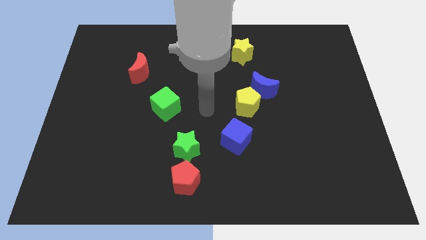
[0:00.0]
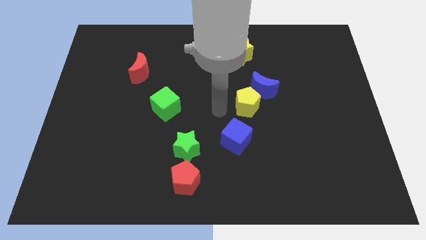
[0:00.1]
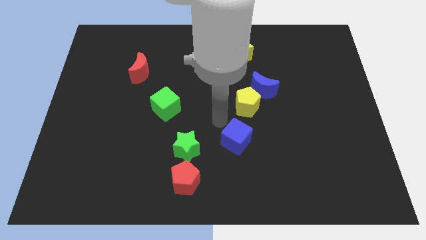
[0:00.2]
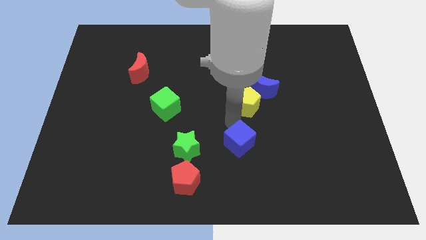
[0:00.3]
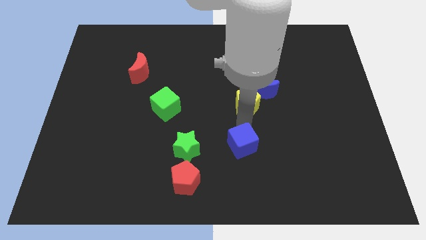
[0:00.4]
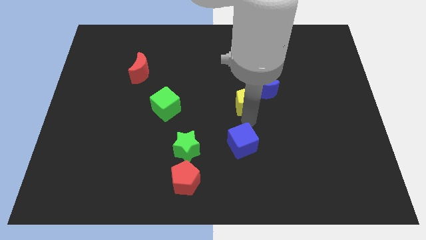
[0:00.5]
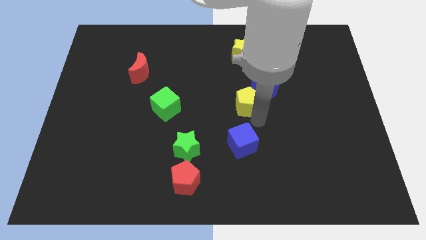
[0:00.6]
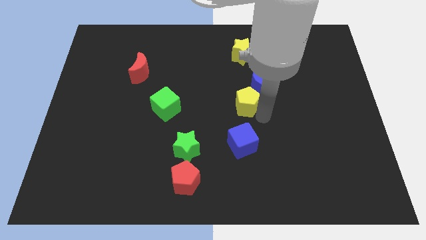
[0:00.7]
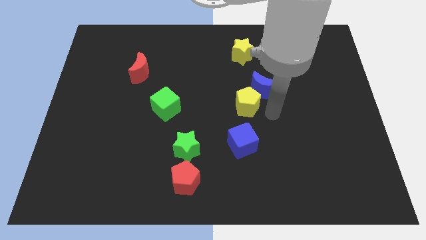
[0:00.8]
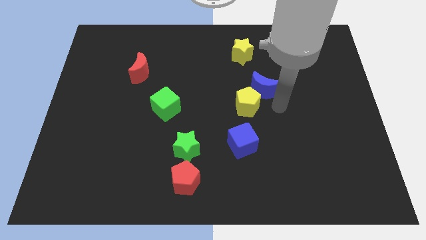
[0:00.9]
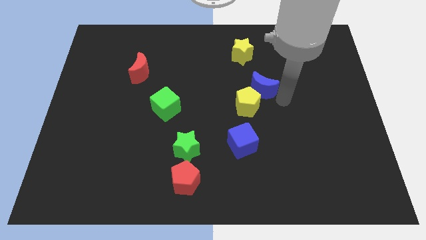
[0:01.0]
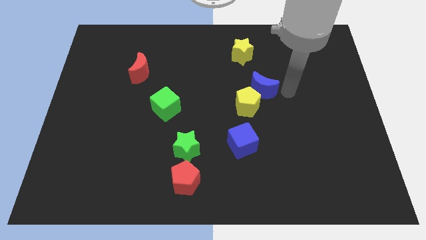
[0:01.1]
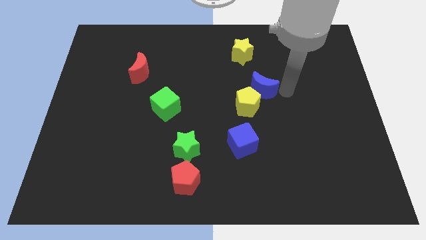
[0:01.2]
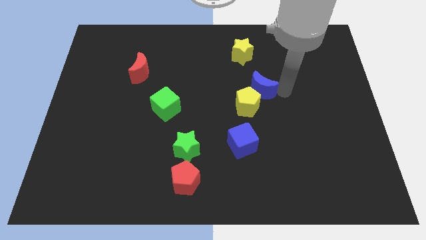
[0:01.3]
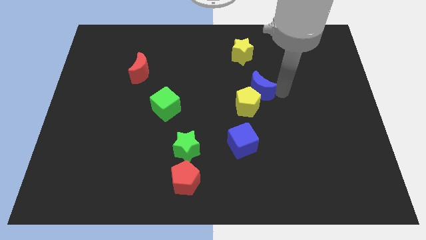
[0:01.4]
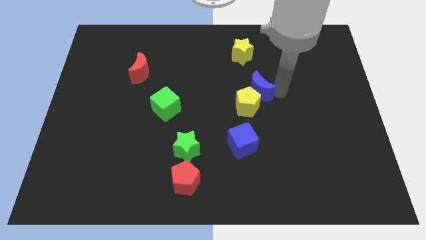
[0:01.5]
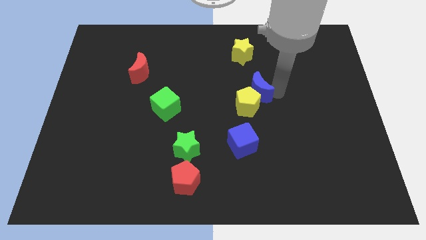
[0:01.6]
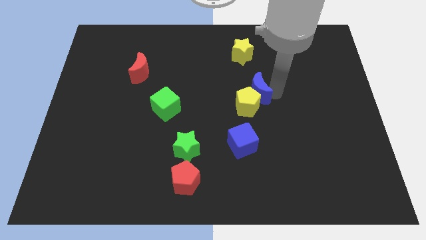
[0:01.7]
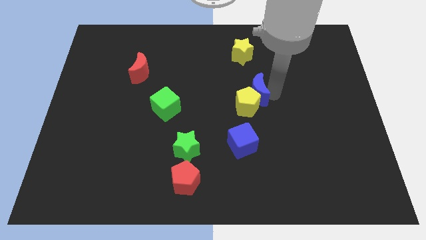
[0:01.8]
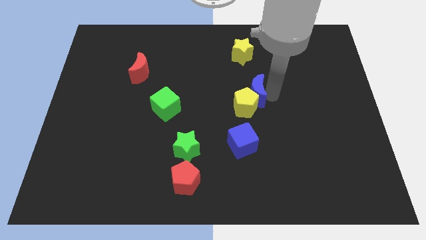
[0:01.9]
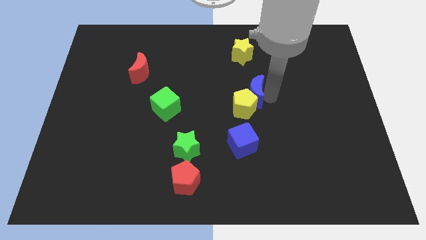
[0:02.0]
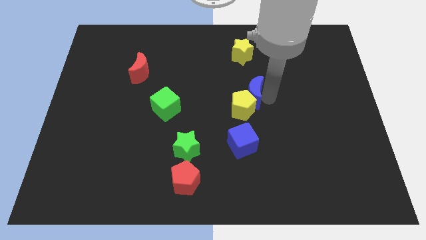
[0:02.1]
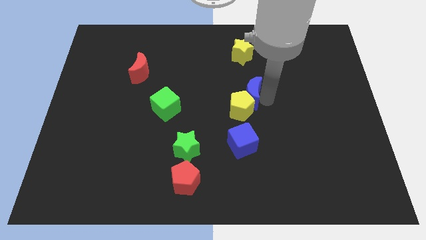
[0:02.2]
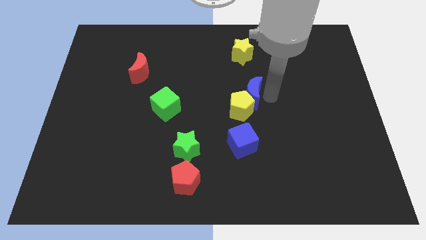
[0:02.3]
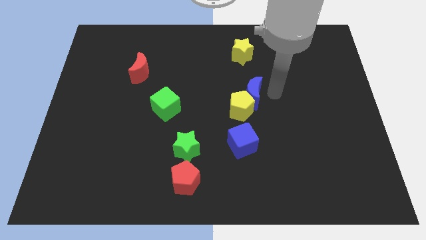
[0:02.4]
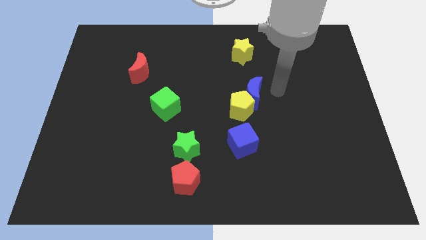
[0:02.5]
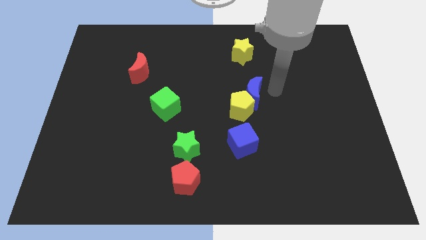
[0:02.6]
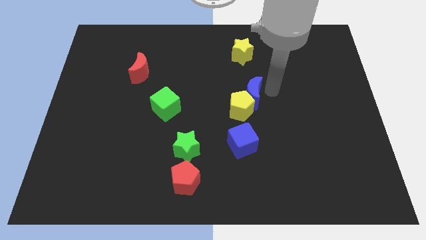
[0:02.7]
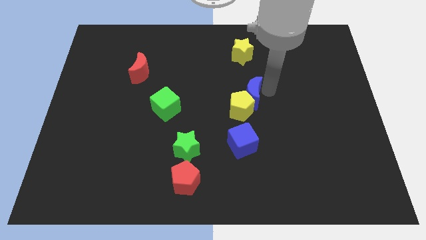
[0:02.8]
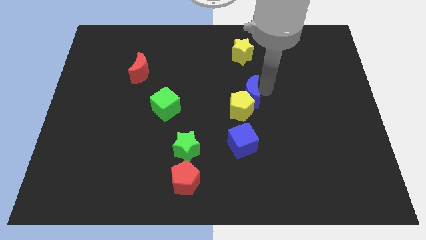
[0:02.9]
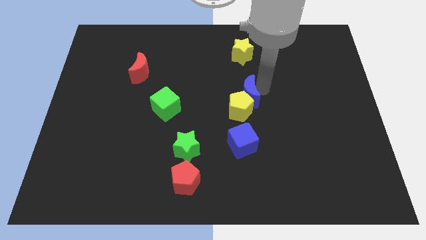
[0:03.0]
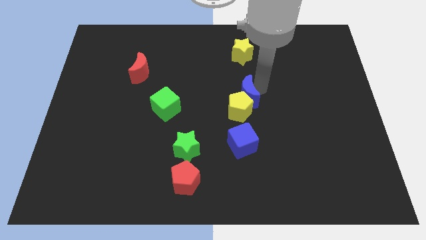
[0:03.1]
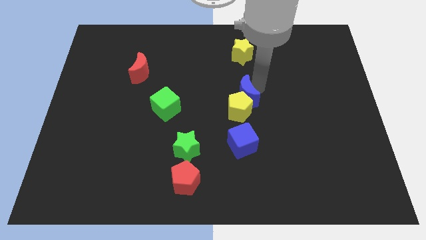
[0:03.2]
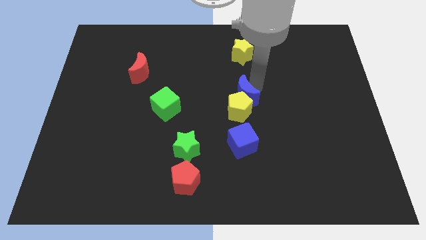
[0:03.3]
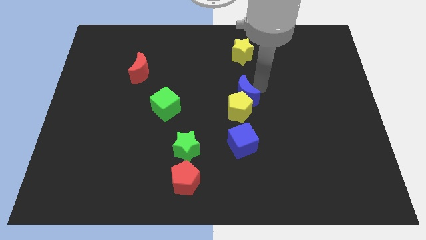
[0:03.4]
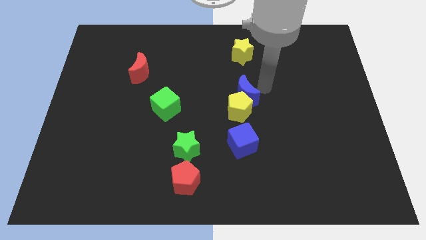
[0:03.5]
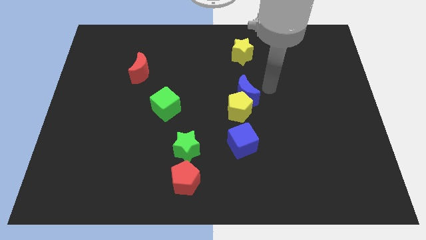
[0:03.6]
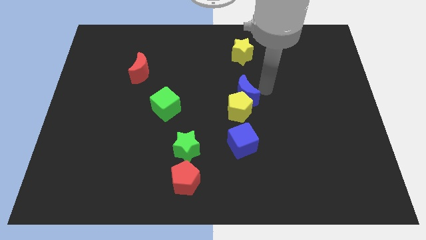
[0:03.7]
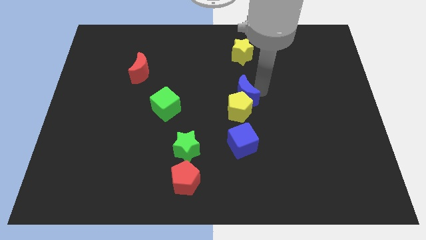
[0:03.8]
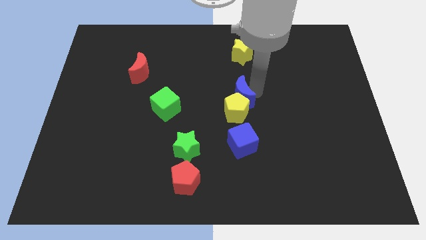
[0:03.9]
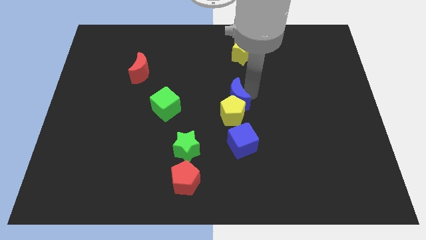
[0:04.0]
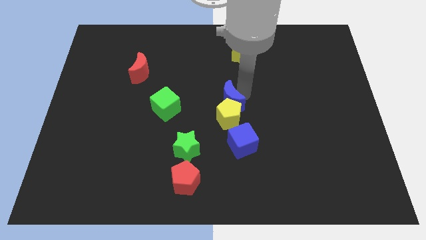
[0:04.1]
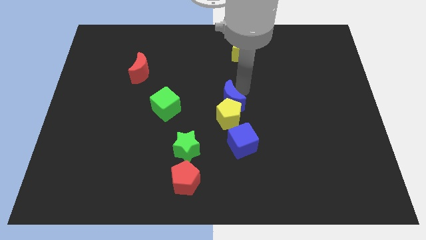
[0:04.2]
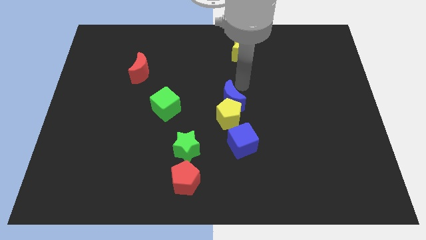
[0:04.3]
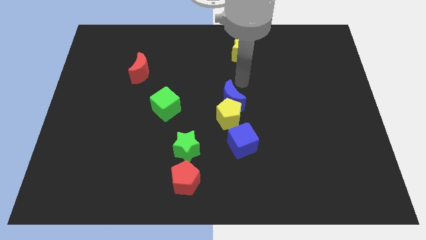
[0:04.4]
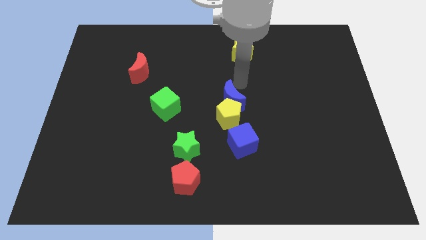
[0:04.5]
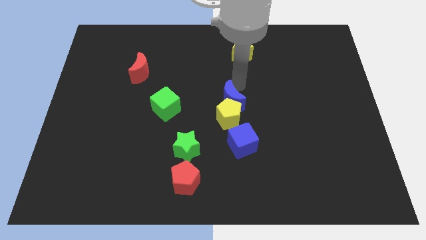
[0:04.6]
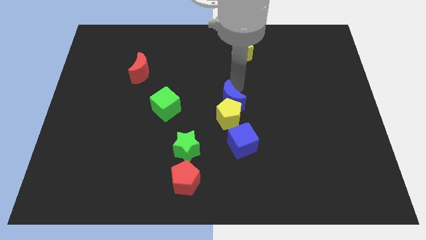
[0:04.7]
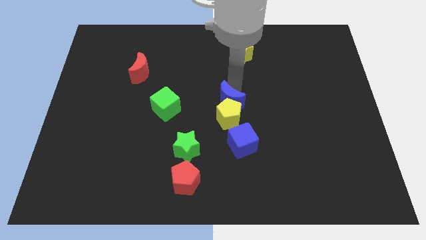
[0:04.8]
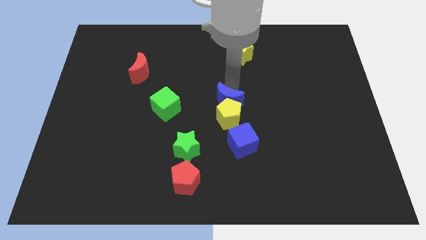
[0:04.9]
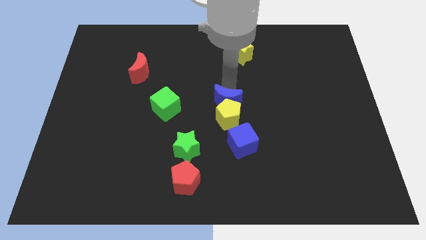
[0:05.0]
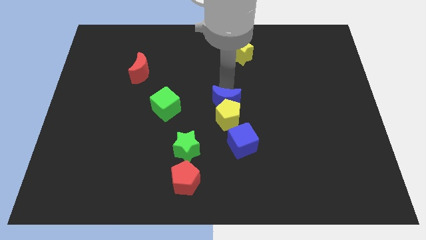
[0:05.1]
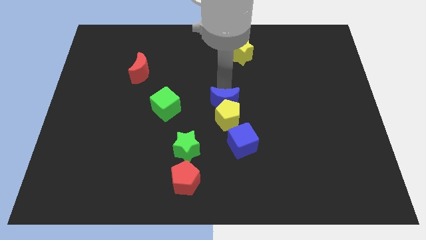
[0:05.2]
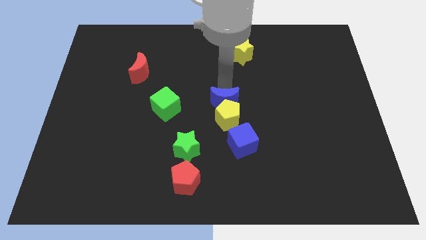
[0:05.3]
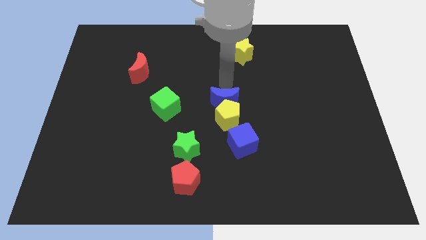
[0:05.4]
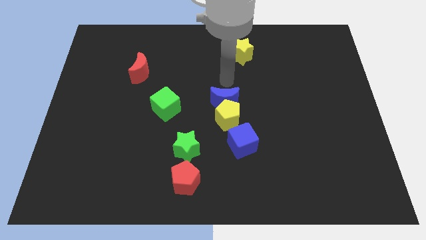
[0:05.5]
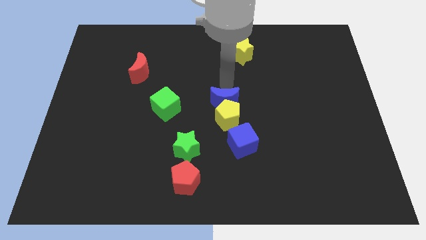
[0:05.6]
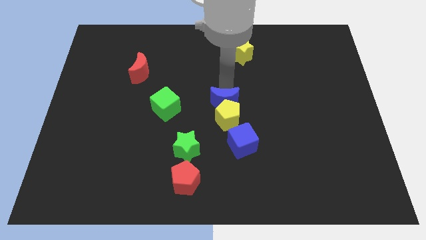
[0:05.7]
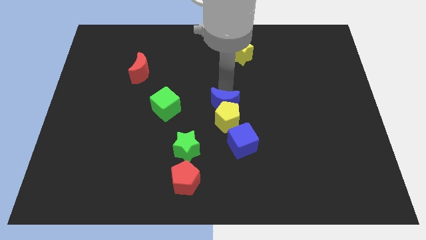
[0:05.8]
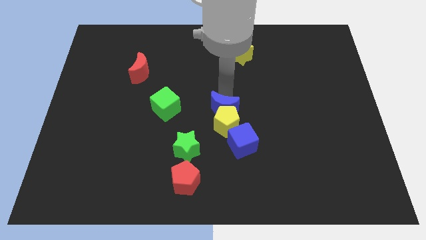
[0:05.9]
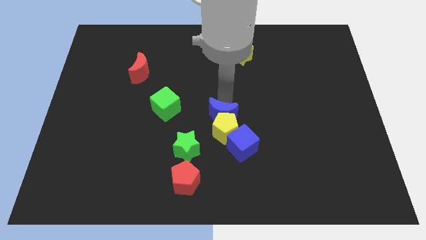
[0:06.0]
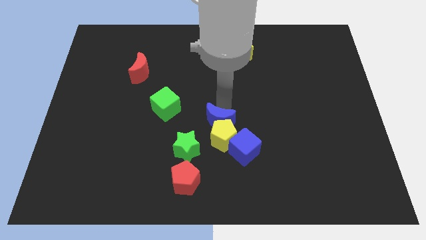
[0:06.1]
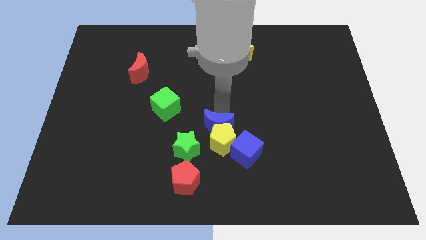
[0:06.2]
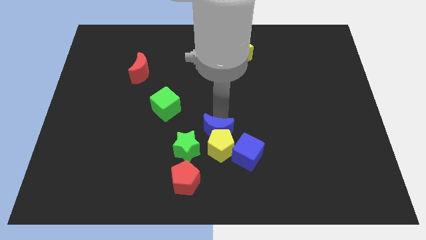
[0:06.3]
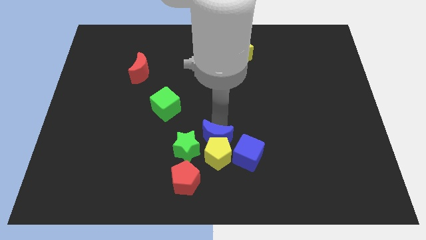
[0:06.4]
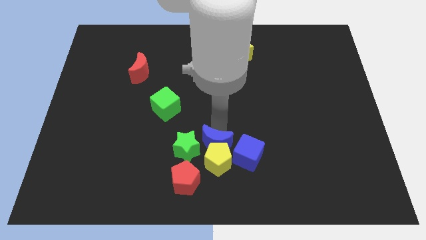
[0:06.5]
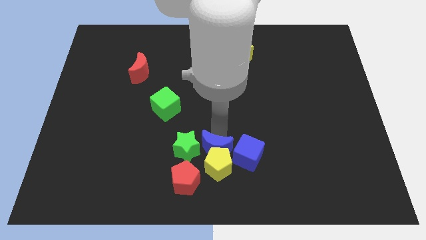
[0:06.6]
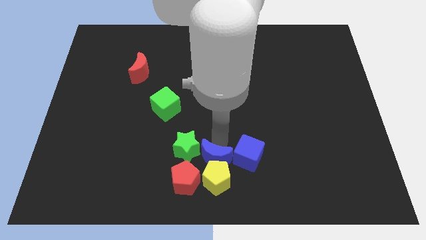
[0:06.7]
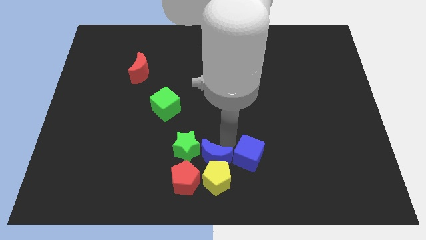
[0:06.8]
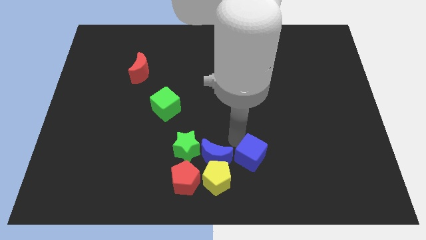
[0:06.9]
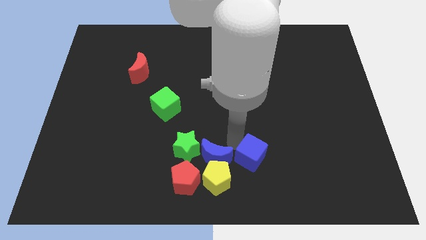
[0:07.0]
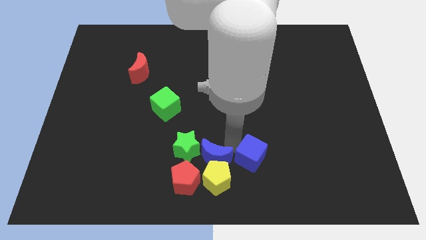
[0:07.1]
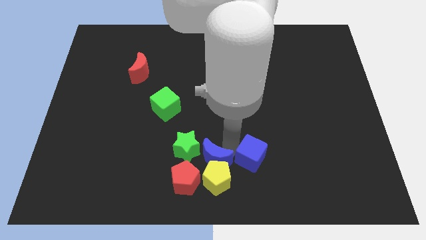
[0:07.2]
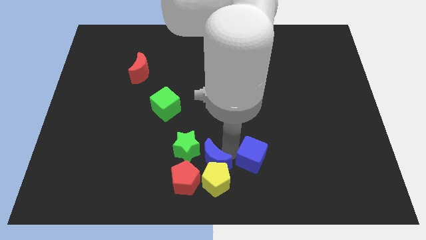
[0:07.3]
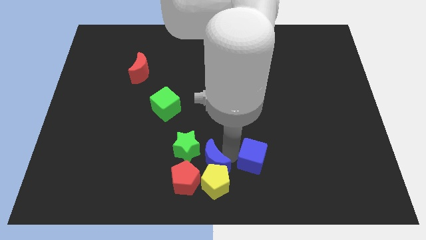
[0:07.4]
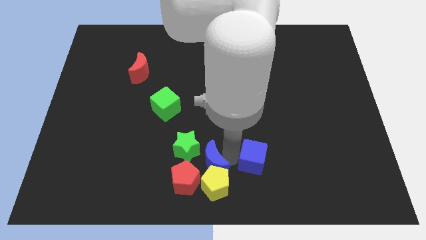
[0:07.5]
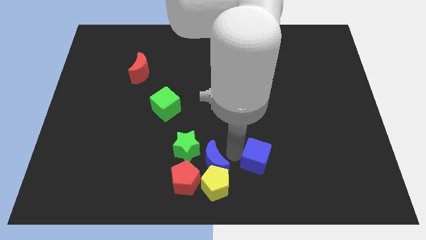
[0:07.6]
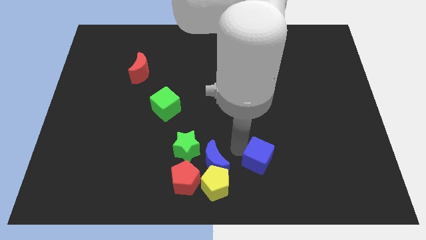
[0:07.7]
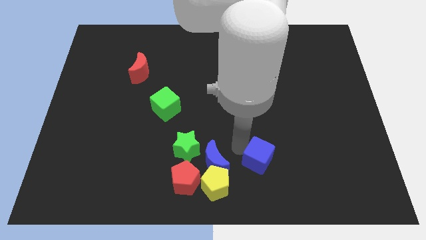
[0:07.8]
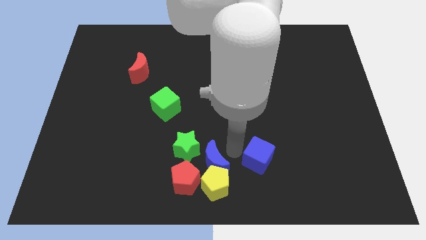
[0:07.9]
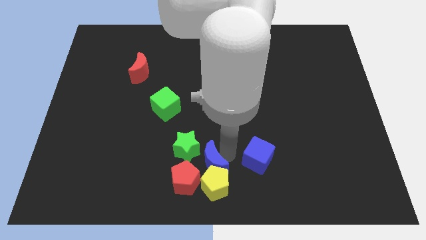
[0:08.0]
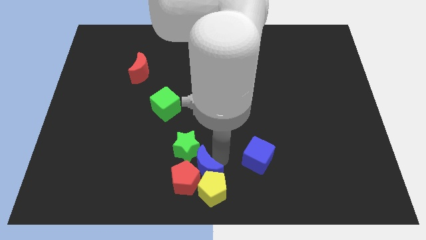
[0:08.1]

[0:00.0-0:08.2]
move the blue moon to the red pentagon
